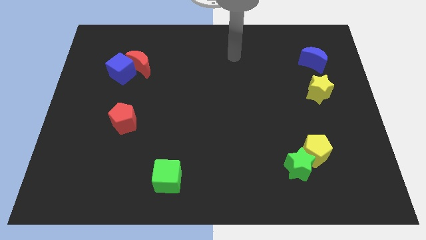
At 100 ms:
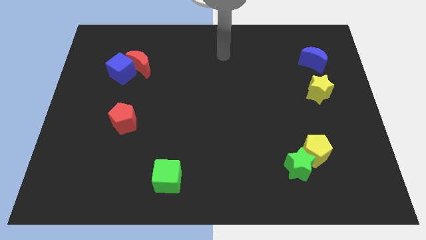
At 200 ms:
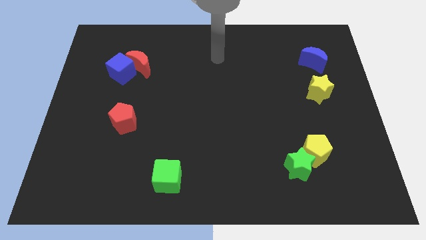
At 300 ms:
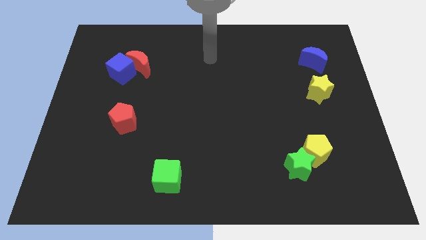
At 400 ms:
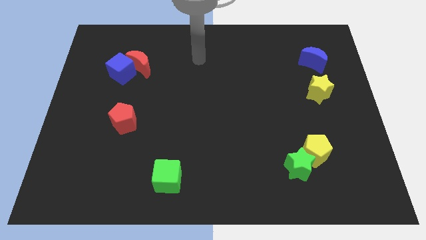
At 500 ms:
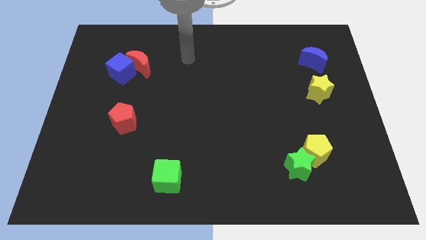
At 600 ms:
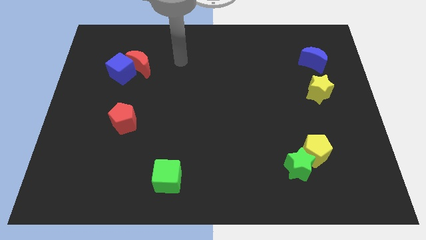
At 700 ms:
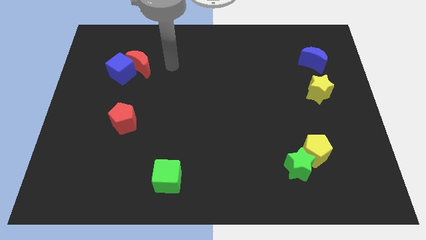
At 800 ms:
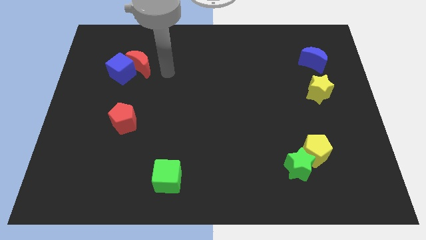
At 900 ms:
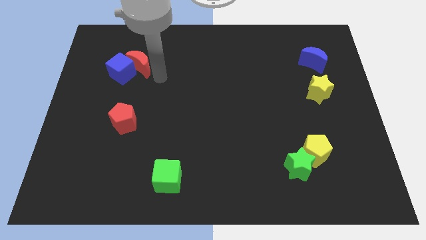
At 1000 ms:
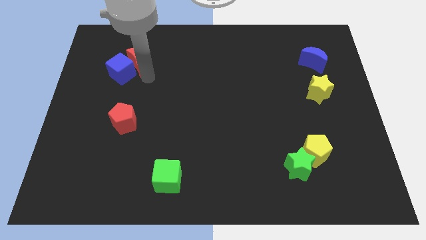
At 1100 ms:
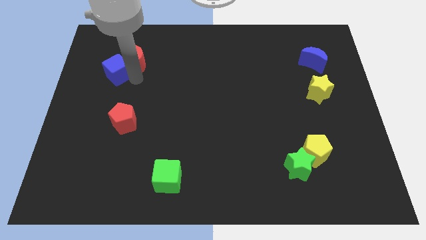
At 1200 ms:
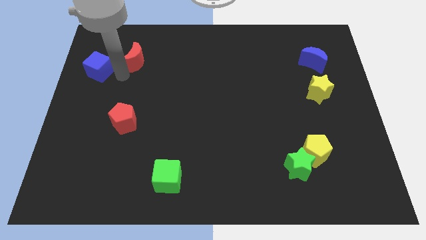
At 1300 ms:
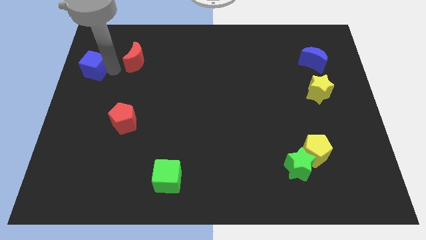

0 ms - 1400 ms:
separate the red moon from the blue cube

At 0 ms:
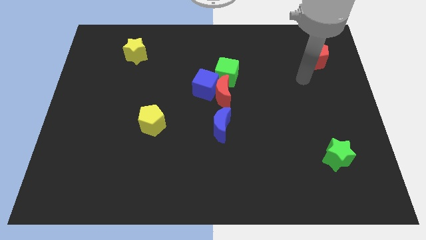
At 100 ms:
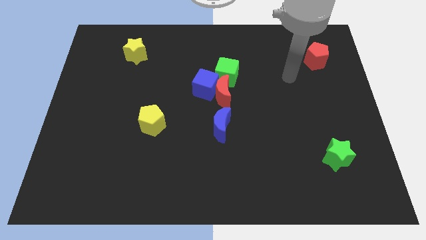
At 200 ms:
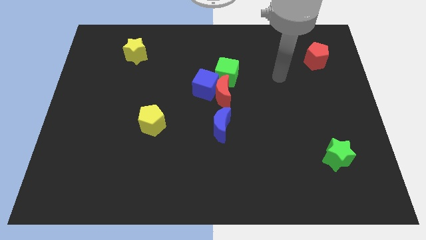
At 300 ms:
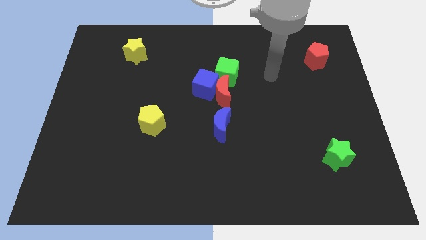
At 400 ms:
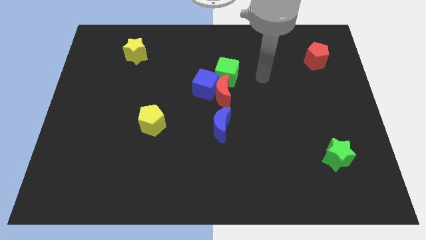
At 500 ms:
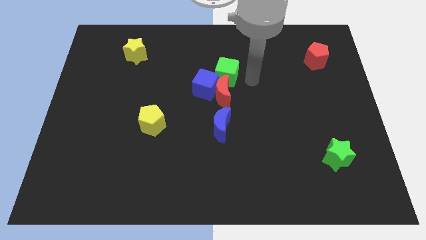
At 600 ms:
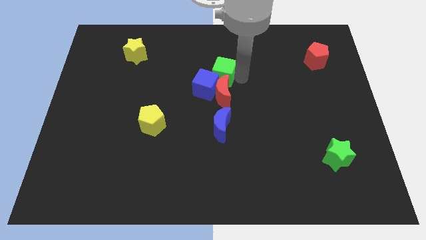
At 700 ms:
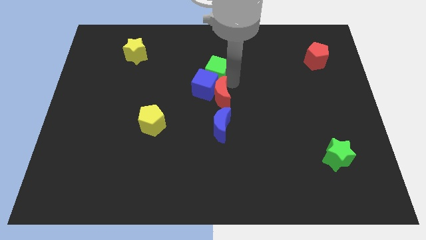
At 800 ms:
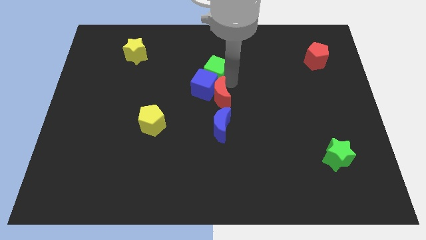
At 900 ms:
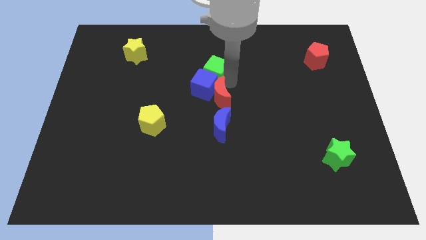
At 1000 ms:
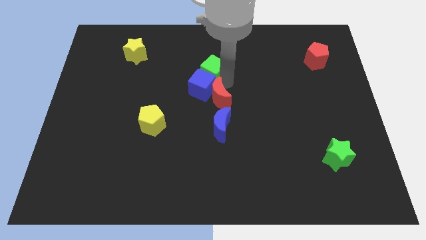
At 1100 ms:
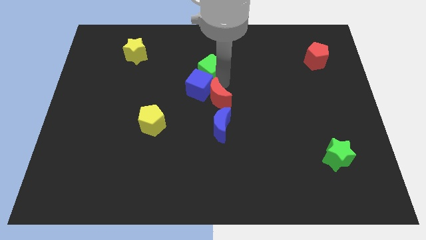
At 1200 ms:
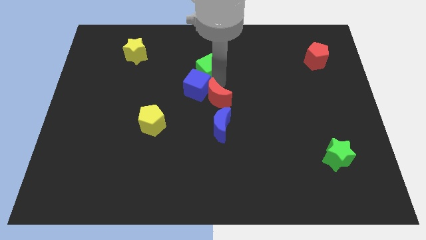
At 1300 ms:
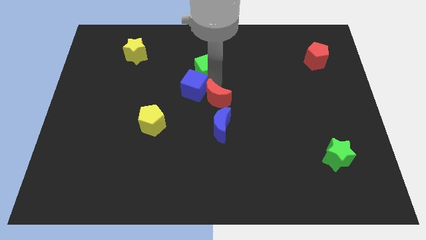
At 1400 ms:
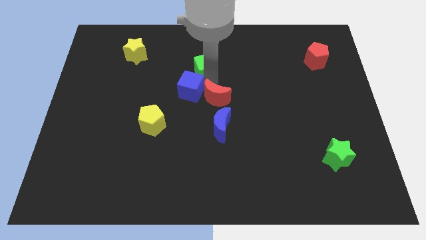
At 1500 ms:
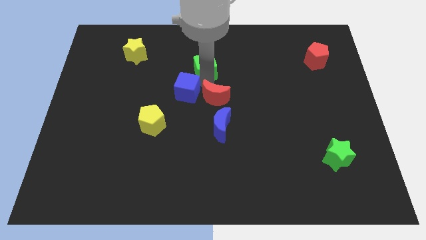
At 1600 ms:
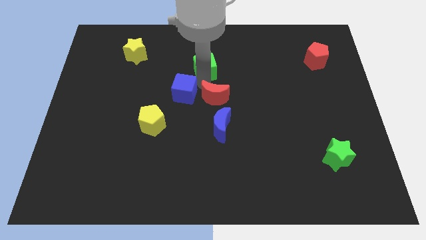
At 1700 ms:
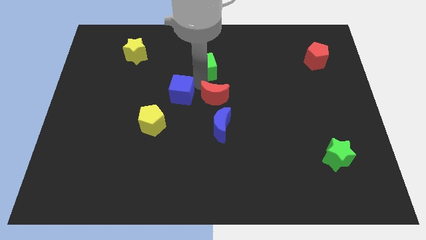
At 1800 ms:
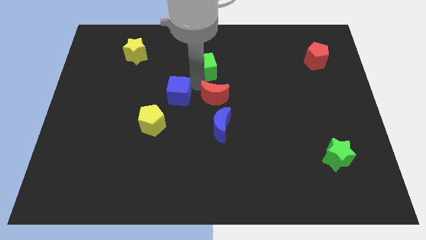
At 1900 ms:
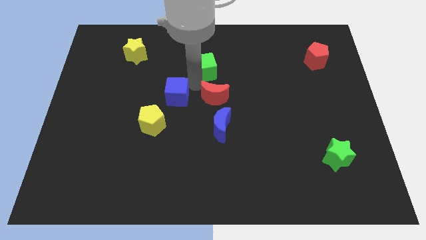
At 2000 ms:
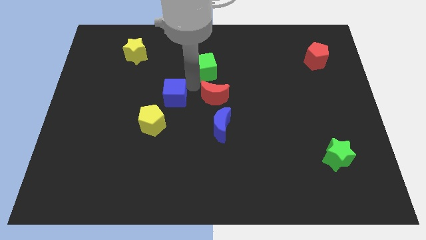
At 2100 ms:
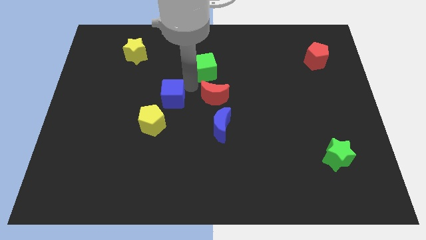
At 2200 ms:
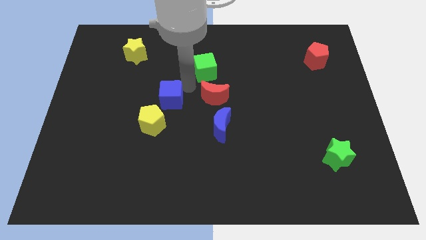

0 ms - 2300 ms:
pull the blue cube apart from the red moon and green cube

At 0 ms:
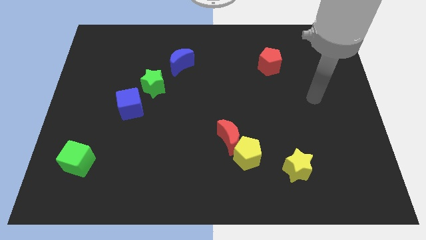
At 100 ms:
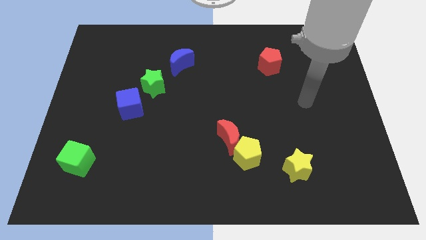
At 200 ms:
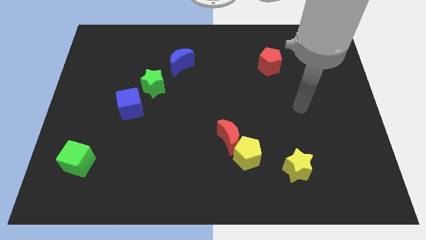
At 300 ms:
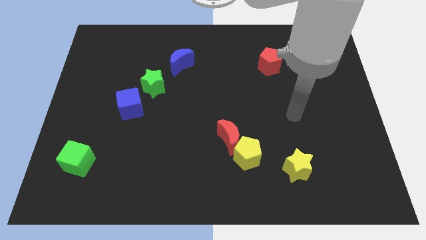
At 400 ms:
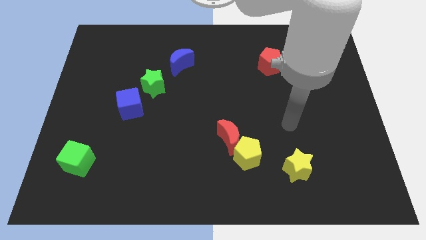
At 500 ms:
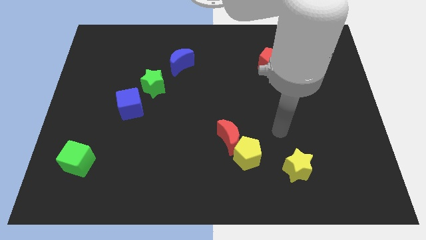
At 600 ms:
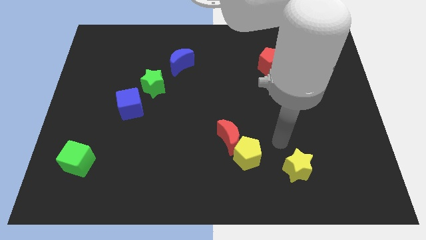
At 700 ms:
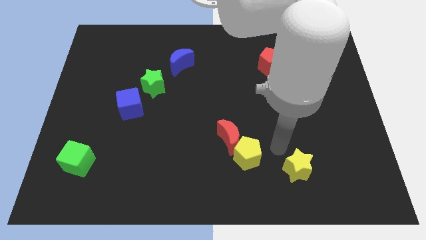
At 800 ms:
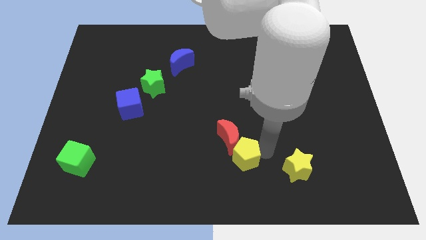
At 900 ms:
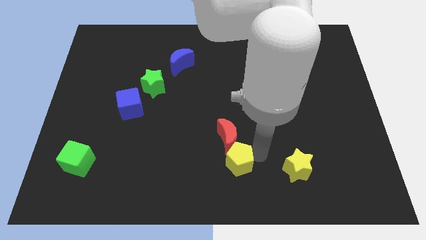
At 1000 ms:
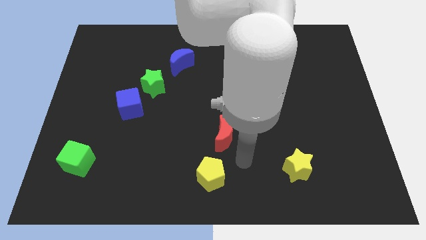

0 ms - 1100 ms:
separate the red moon from the yellow pentagon

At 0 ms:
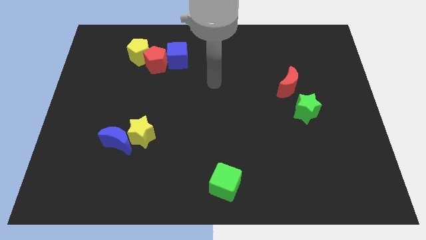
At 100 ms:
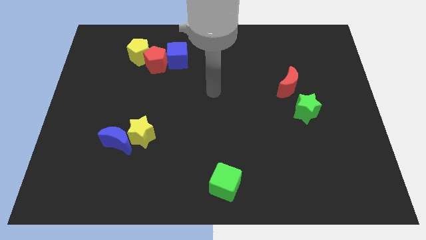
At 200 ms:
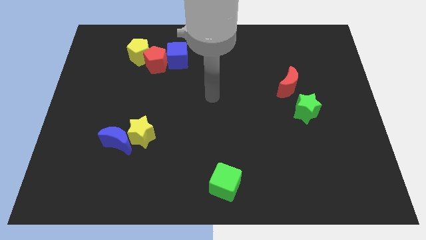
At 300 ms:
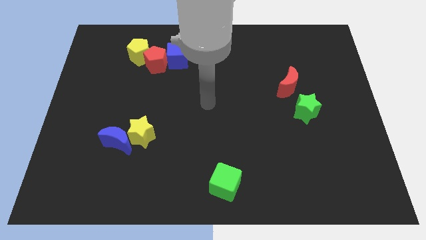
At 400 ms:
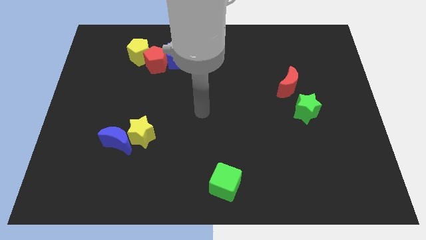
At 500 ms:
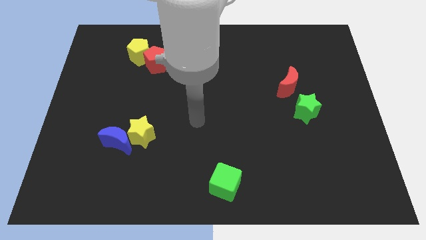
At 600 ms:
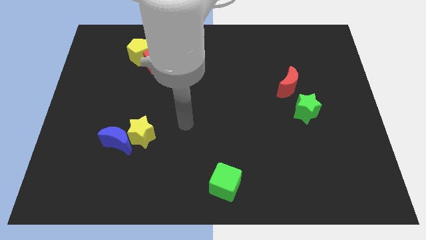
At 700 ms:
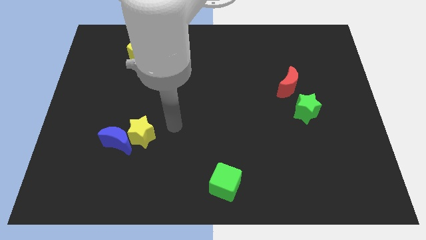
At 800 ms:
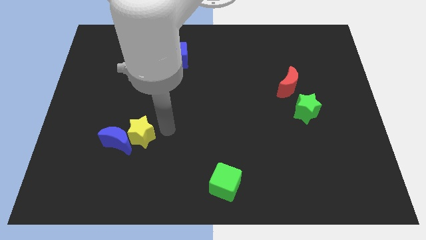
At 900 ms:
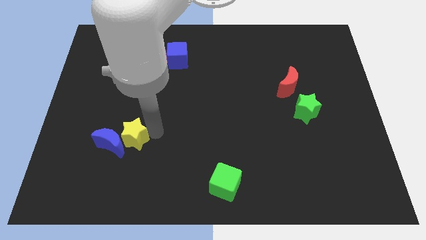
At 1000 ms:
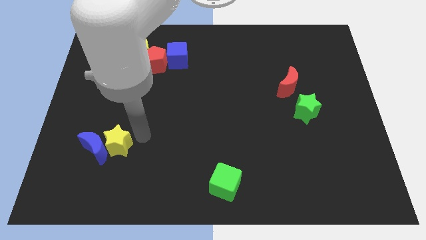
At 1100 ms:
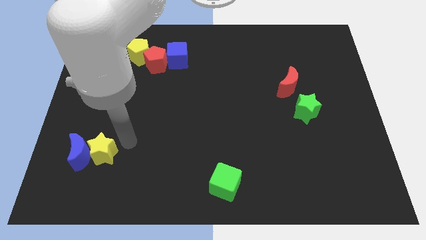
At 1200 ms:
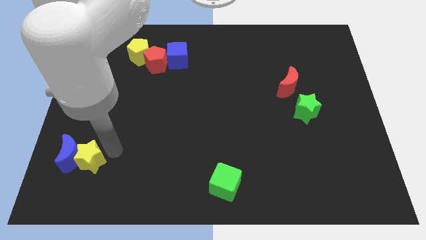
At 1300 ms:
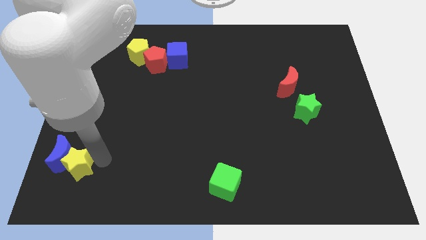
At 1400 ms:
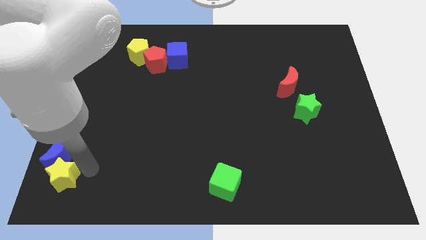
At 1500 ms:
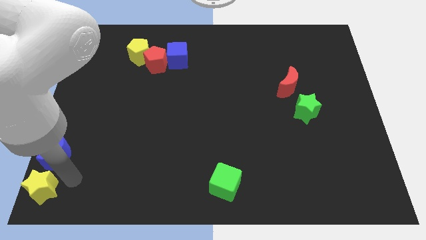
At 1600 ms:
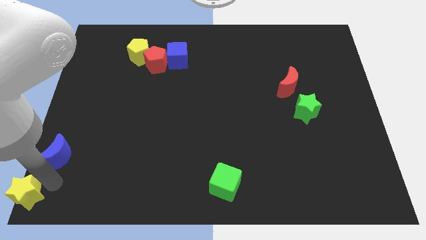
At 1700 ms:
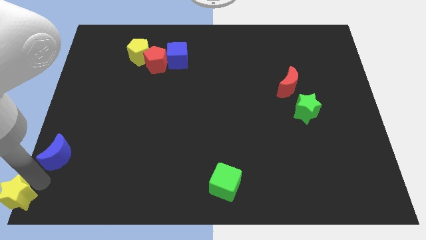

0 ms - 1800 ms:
pull the blue moon apart from the yellow star

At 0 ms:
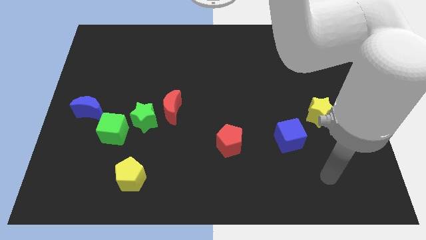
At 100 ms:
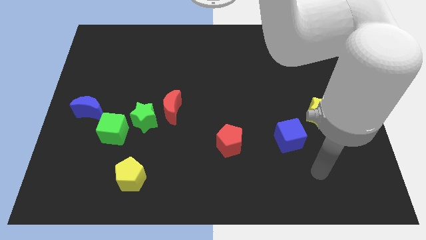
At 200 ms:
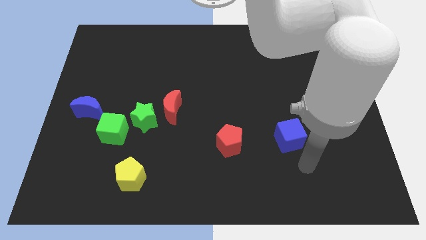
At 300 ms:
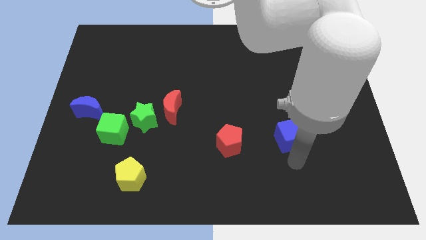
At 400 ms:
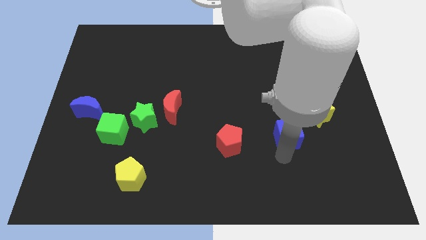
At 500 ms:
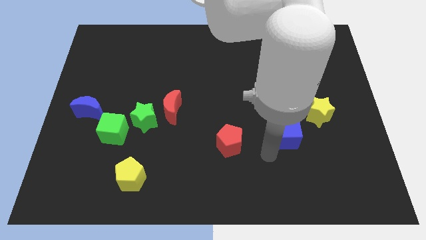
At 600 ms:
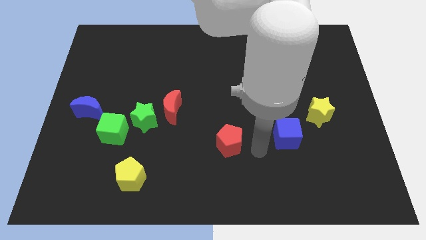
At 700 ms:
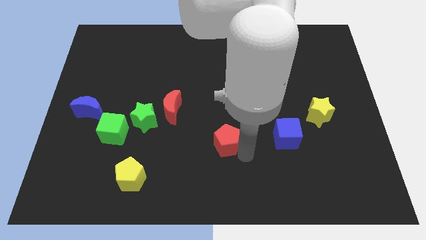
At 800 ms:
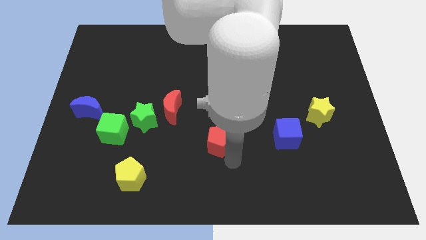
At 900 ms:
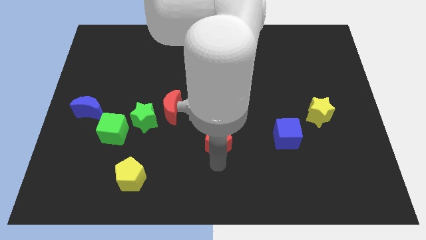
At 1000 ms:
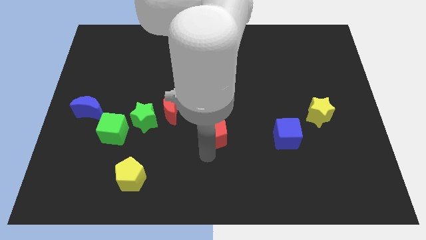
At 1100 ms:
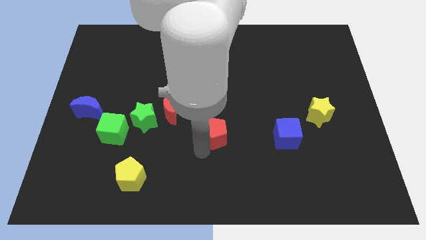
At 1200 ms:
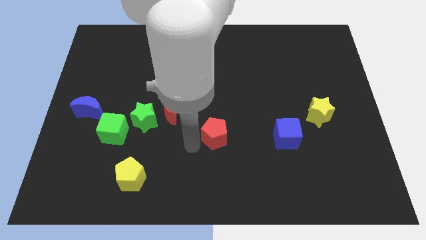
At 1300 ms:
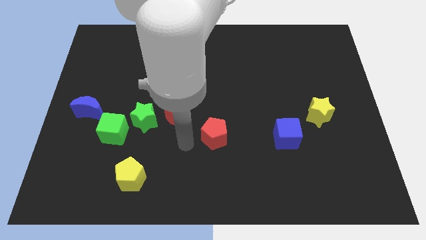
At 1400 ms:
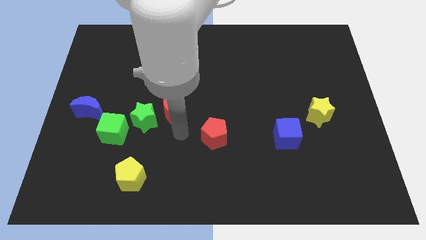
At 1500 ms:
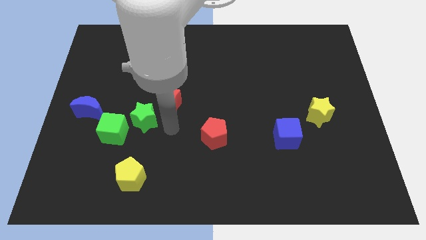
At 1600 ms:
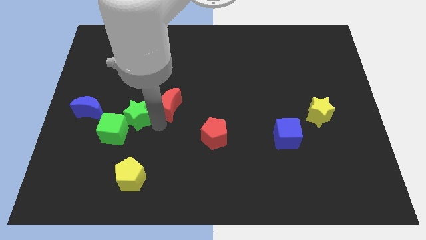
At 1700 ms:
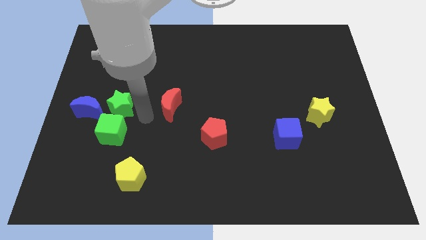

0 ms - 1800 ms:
pull the red moon apart from the green star

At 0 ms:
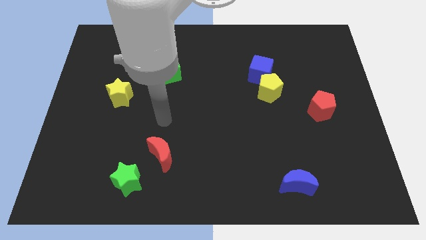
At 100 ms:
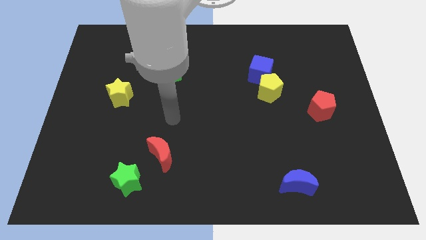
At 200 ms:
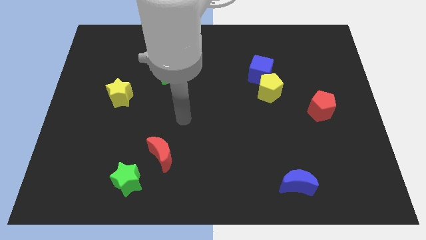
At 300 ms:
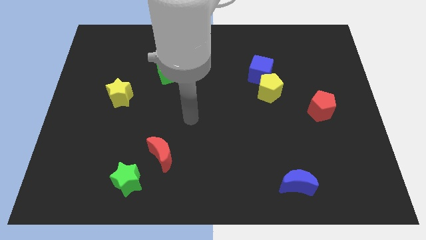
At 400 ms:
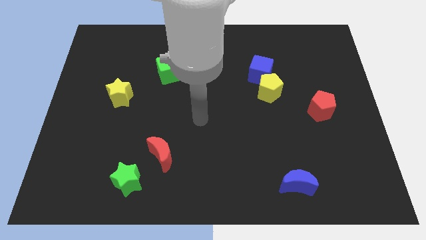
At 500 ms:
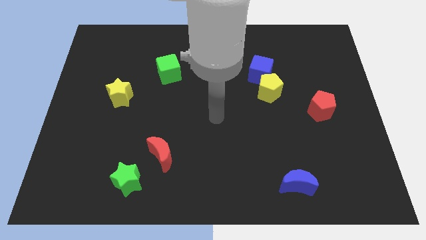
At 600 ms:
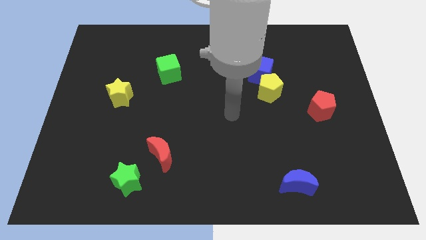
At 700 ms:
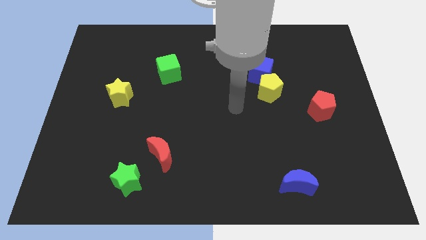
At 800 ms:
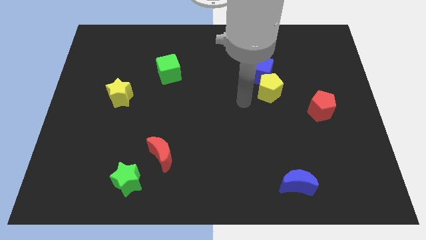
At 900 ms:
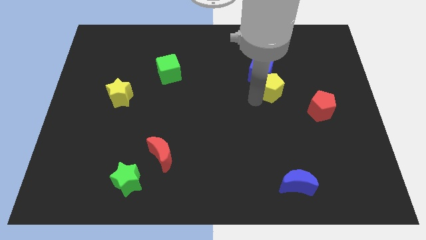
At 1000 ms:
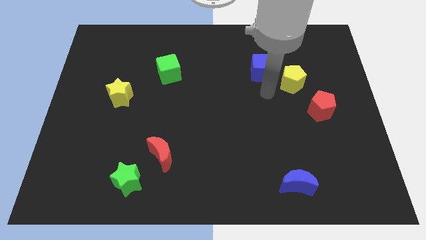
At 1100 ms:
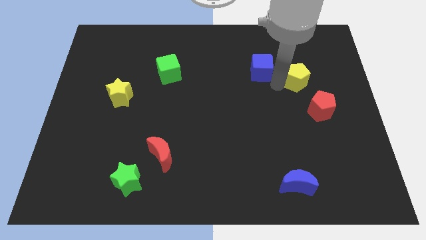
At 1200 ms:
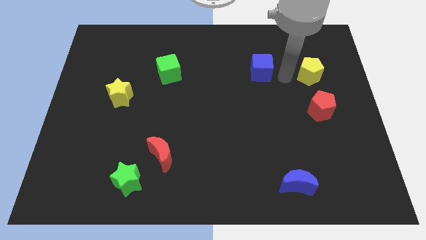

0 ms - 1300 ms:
pull the blue cube apart from the yellow pentagon
